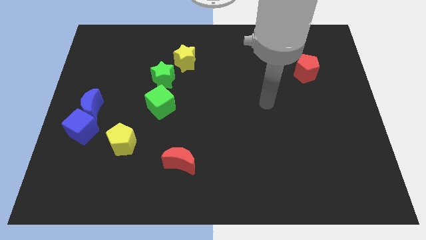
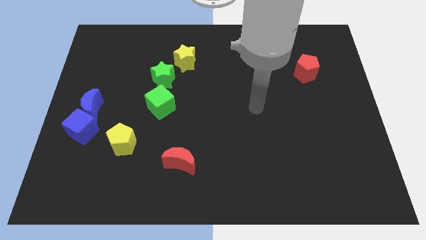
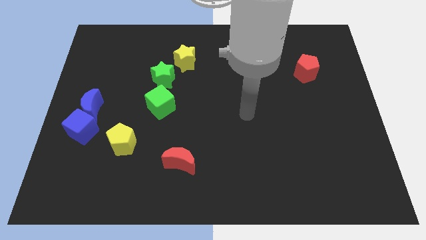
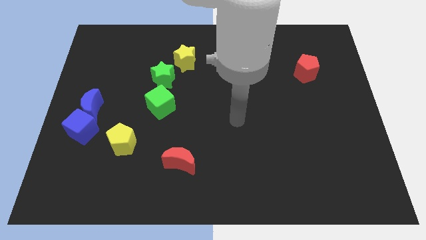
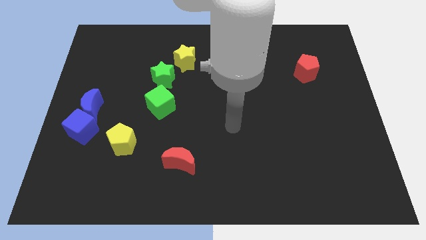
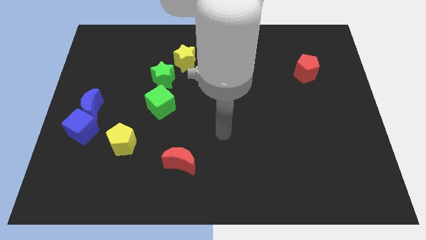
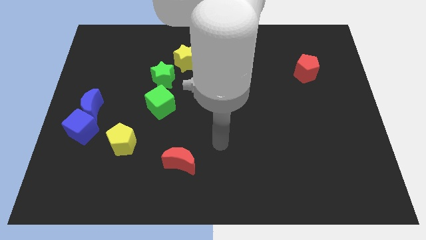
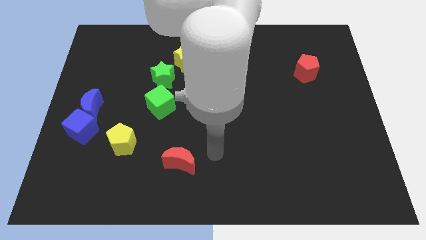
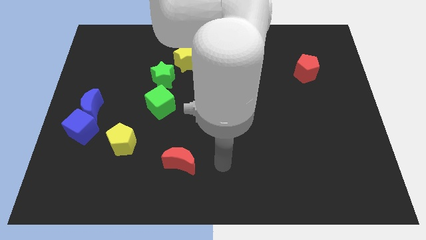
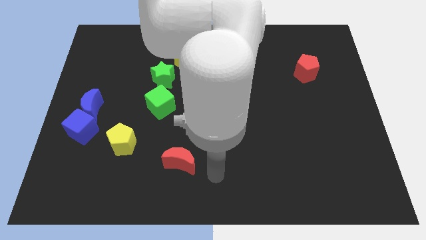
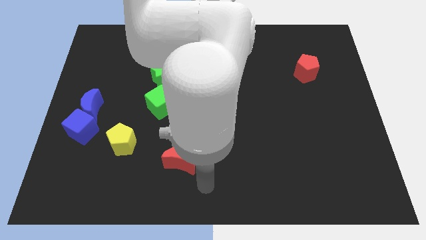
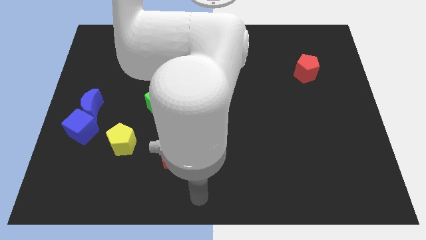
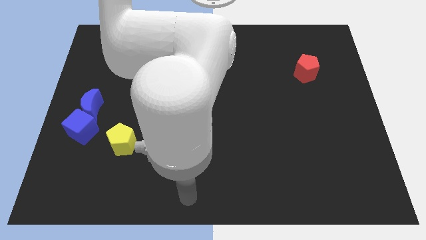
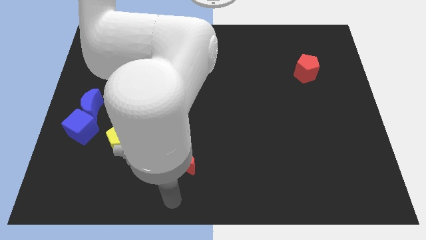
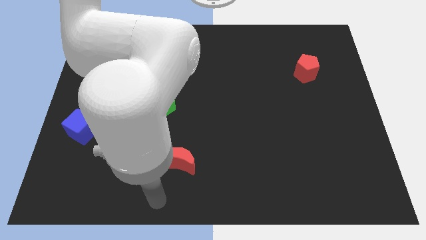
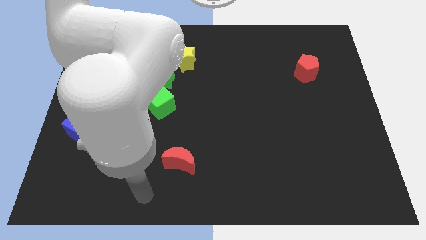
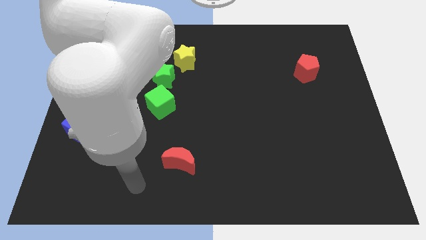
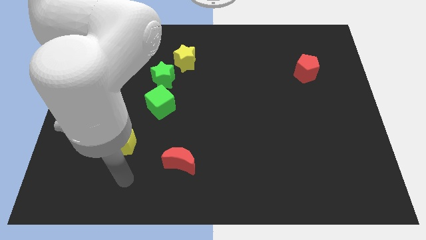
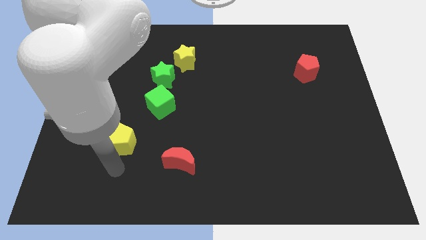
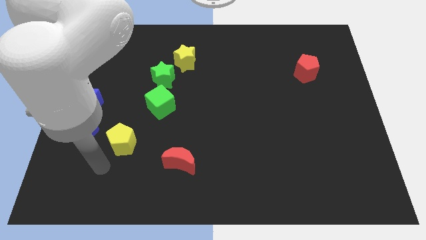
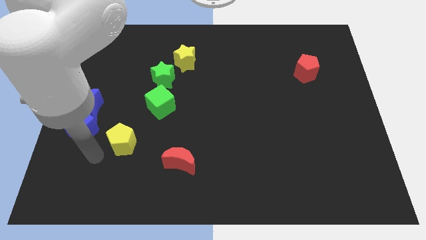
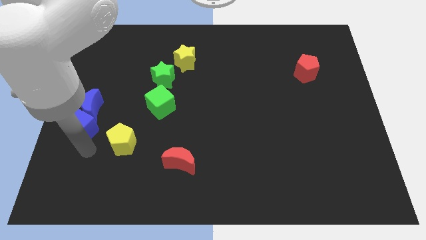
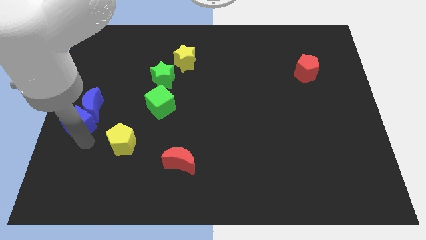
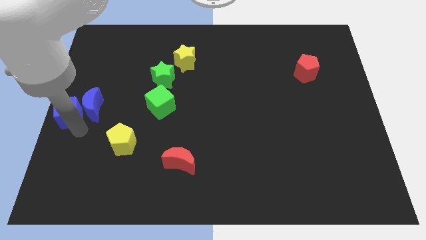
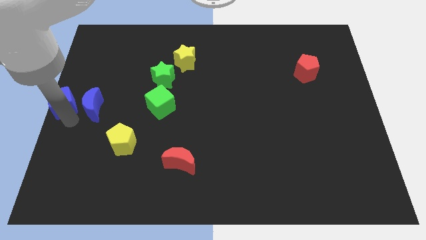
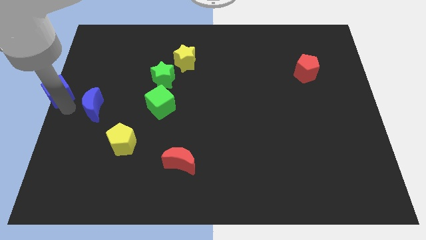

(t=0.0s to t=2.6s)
separate the blue moon from the blue cube

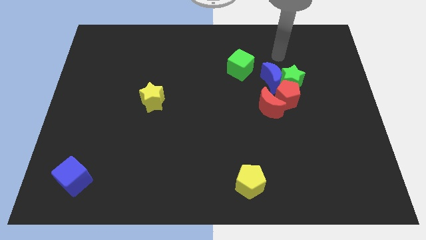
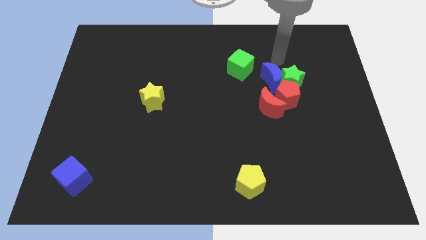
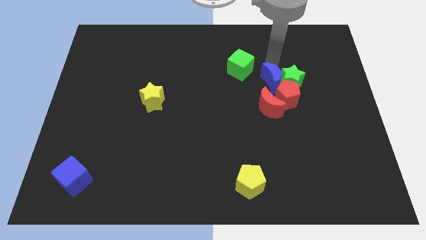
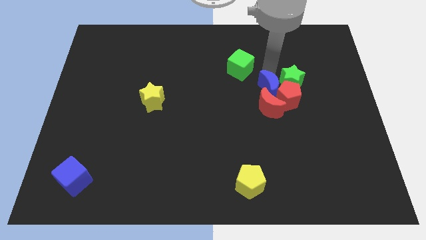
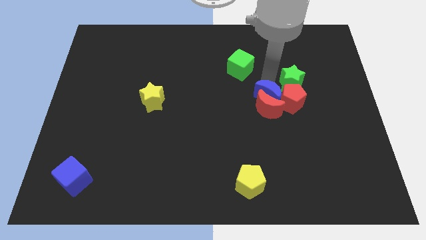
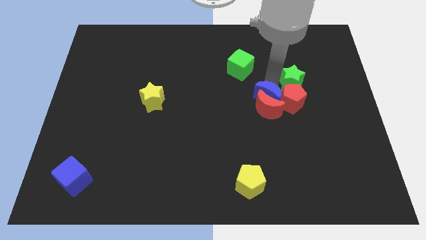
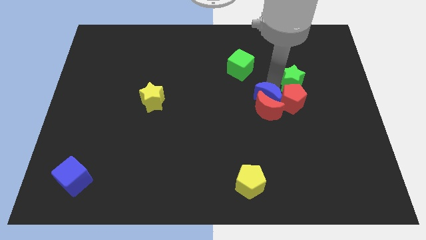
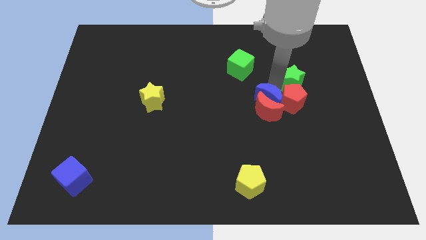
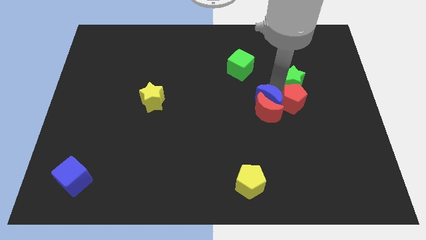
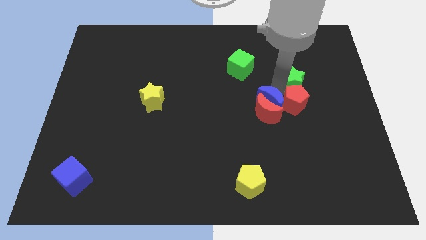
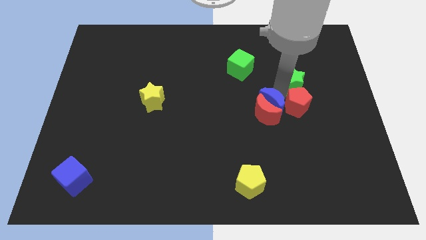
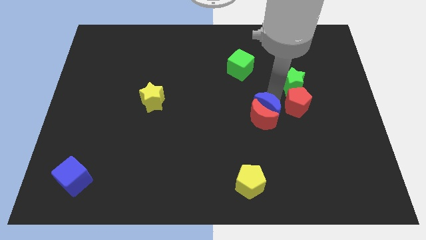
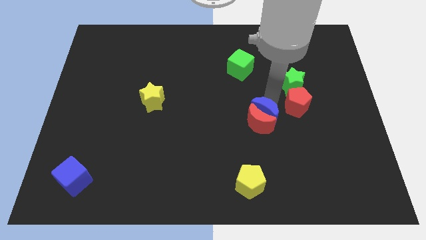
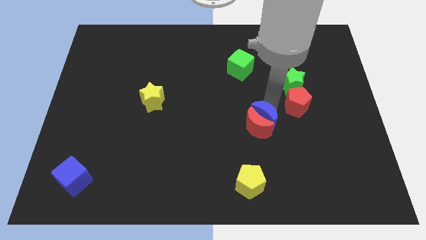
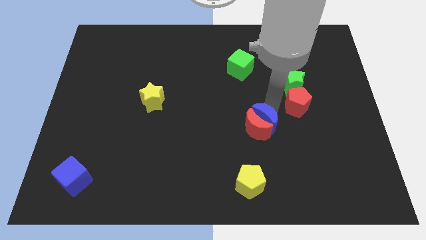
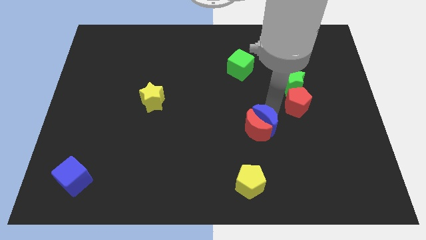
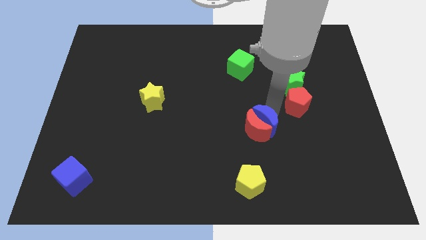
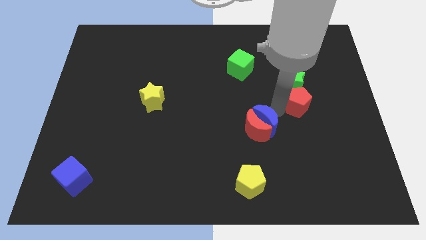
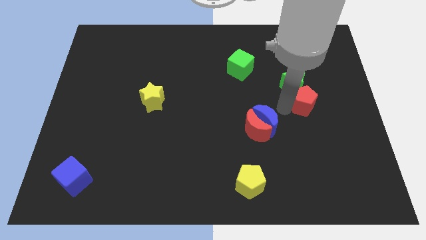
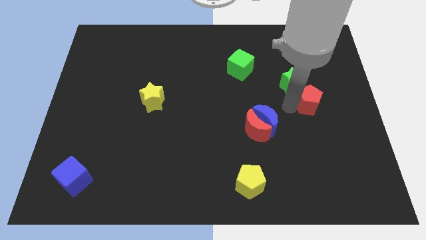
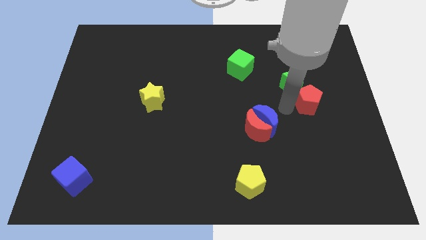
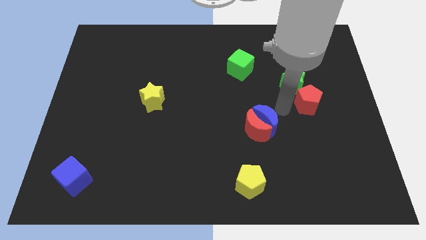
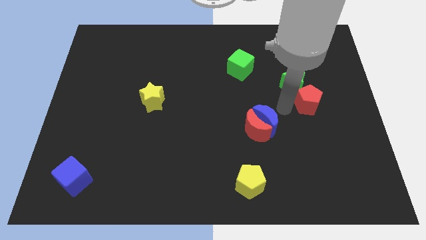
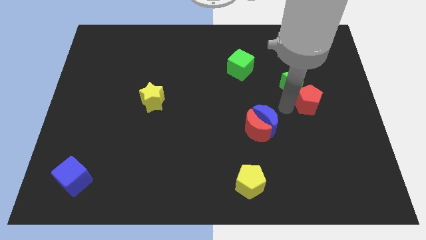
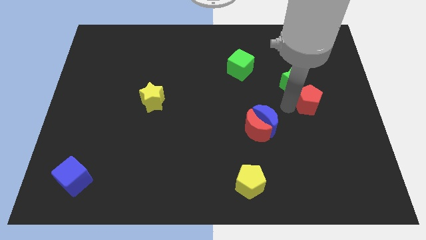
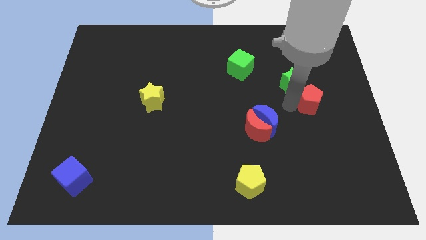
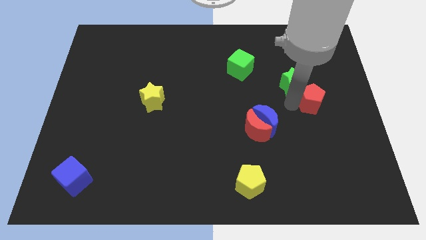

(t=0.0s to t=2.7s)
move the red pentagon away from the green star, red moon, and blue moon

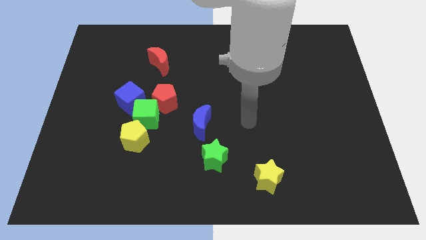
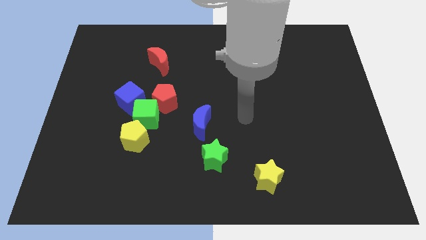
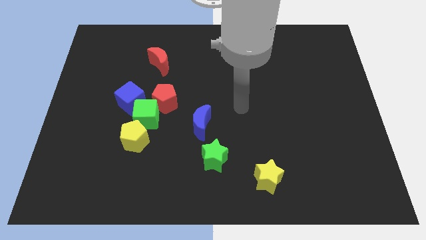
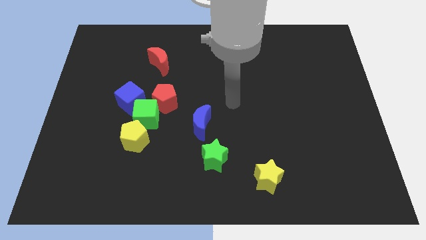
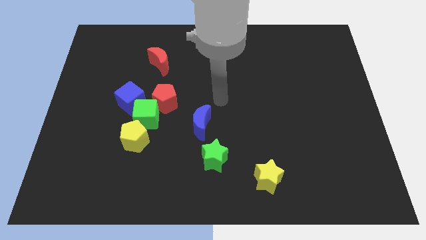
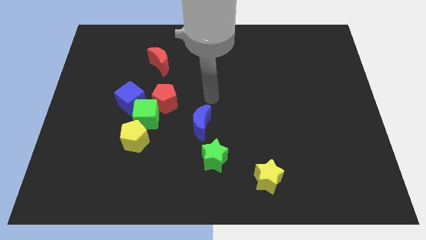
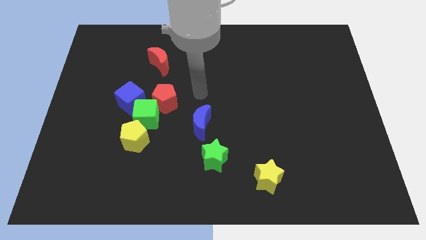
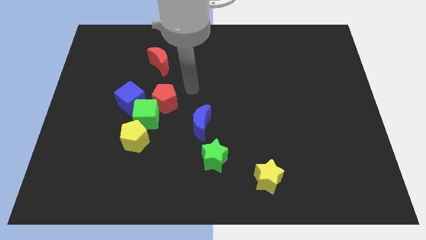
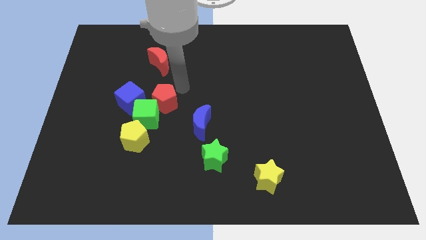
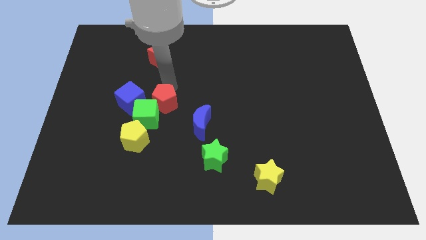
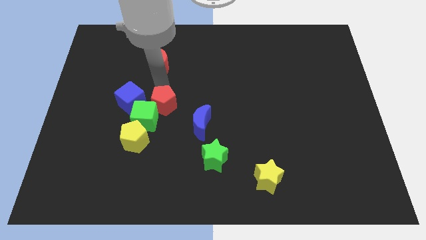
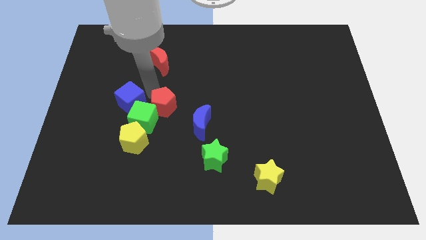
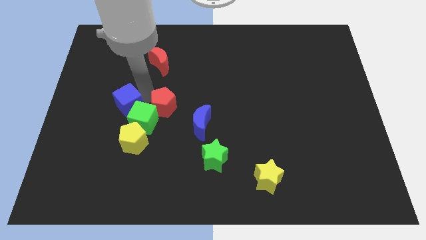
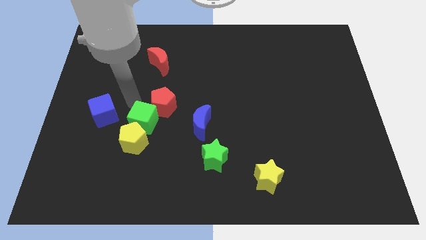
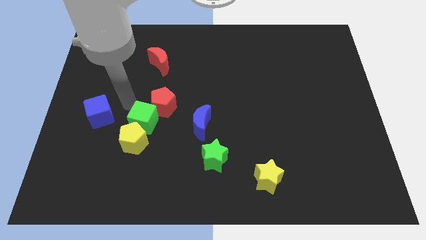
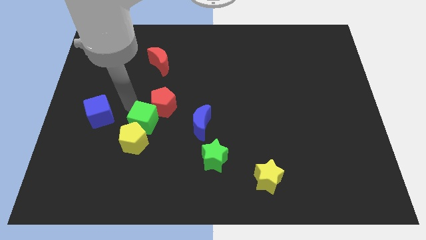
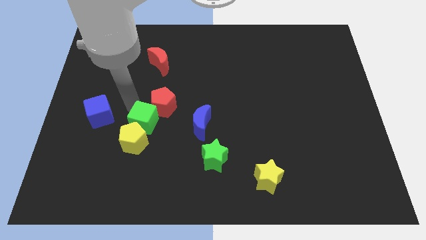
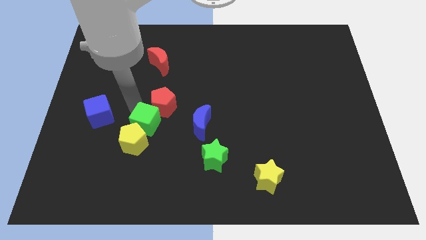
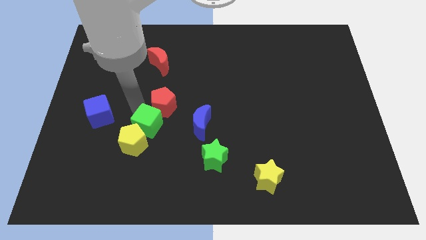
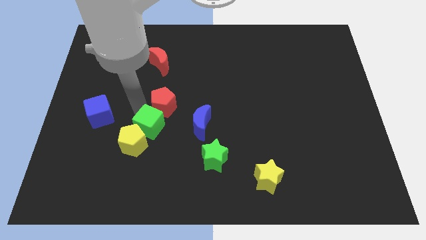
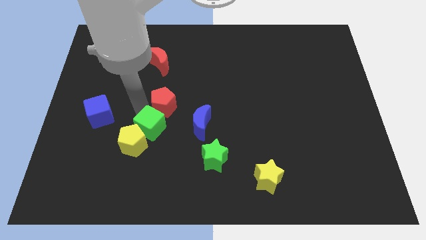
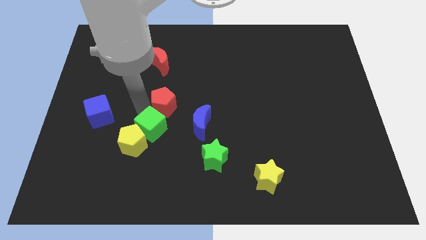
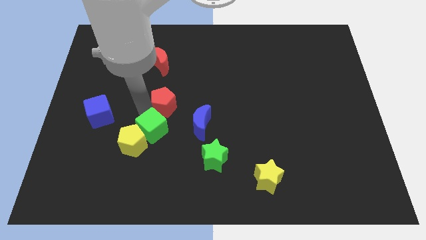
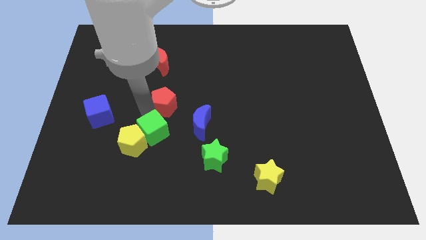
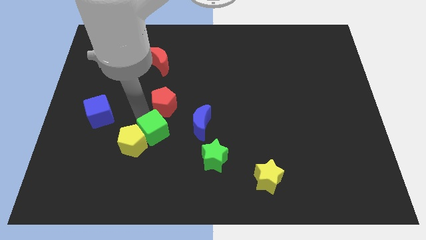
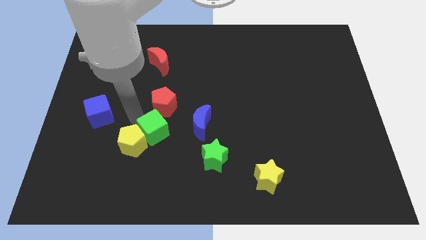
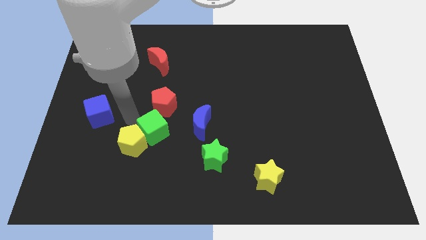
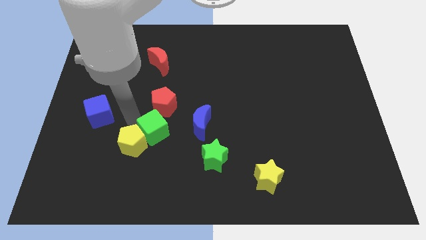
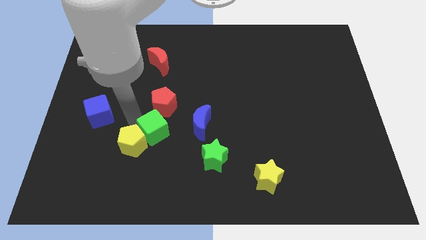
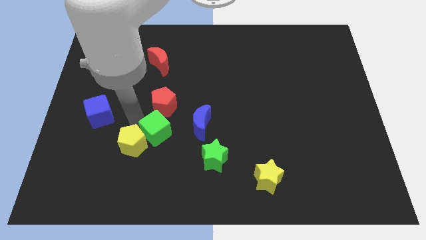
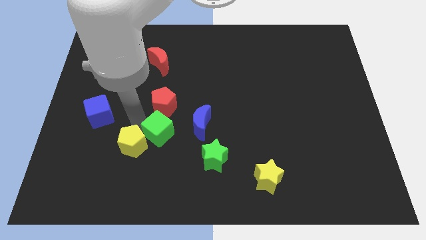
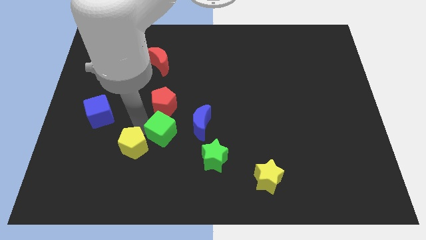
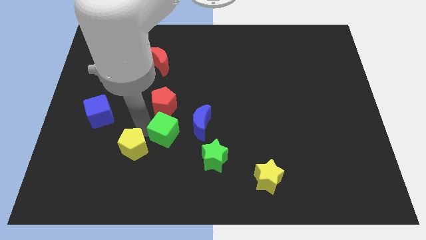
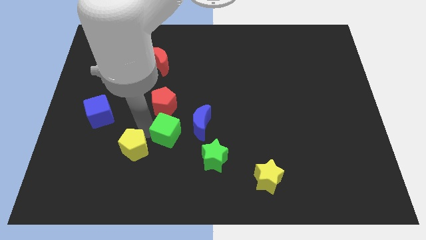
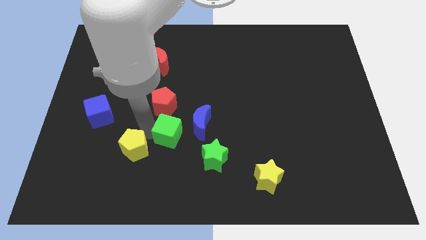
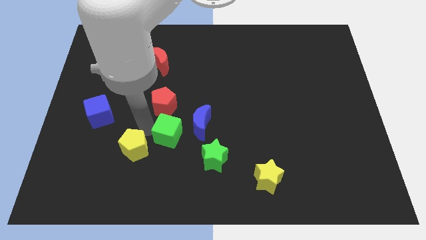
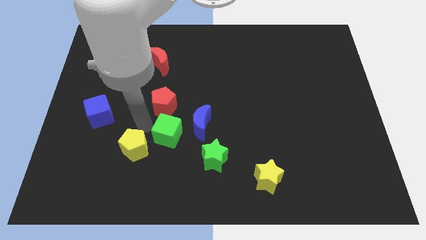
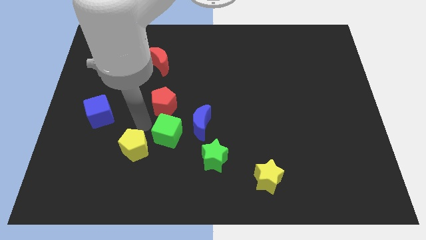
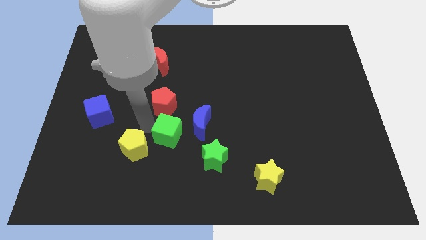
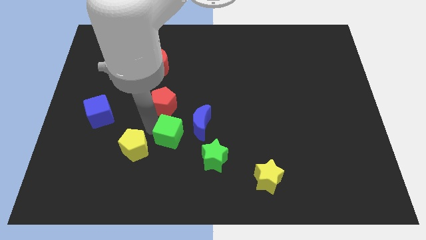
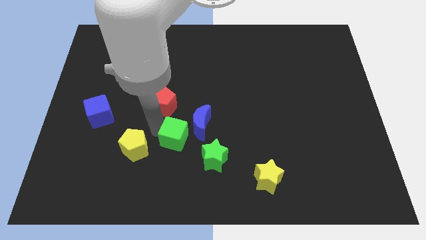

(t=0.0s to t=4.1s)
pull the green cube apart from the red pentagon, yellow pentagon, and blue cube
